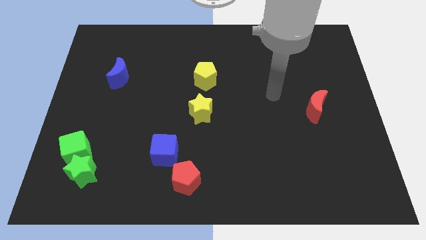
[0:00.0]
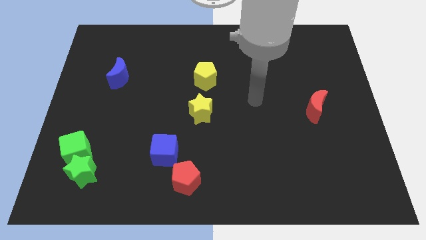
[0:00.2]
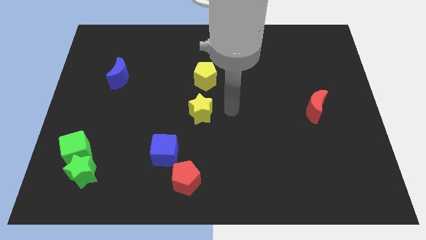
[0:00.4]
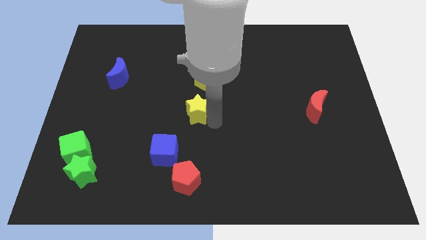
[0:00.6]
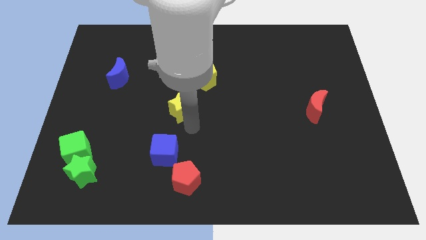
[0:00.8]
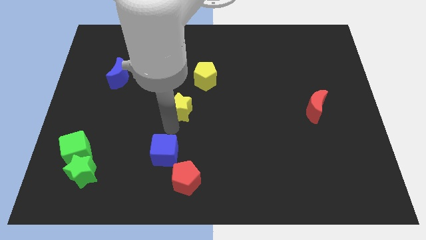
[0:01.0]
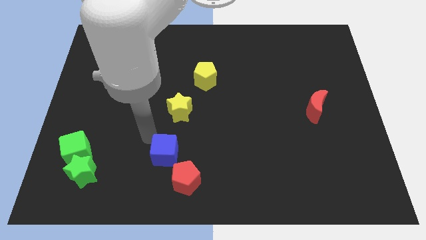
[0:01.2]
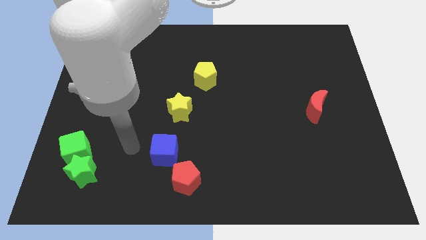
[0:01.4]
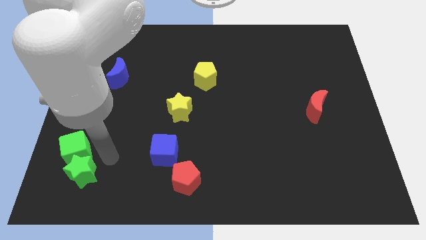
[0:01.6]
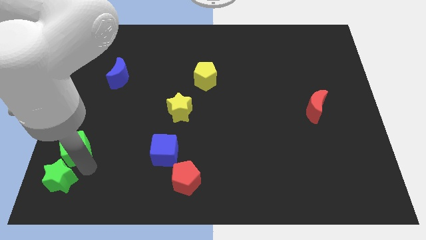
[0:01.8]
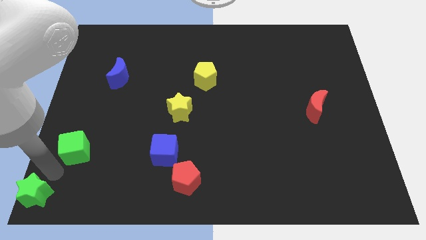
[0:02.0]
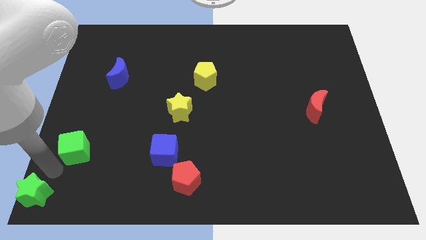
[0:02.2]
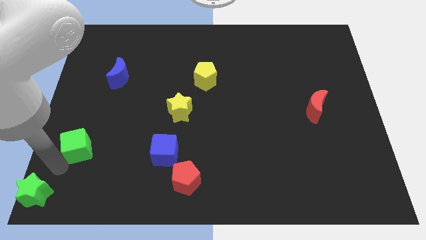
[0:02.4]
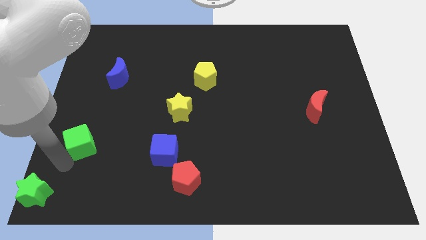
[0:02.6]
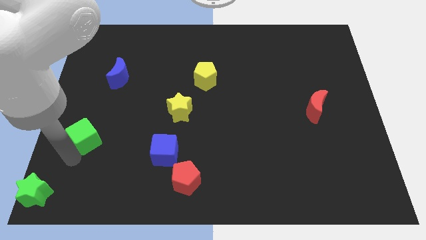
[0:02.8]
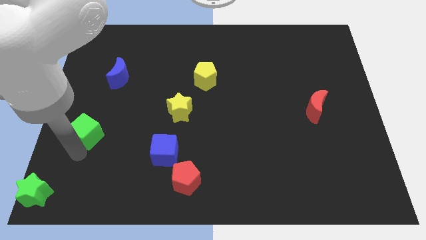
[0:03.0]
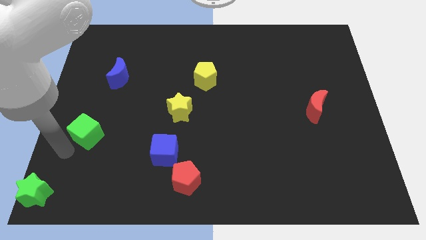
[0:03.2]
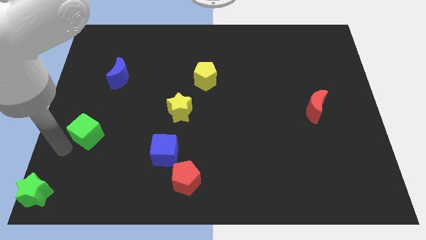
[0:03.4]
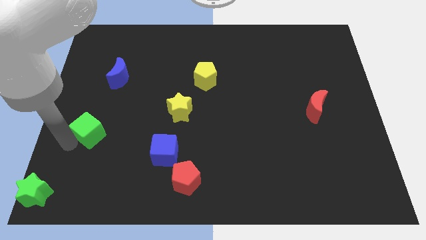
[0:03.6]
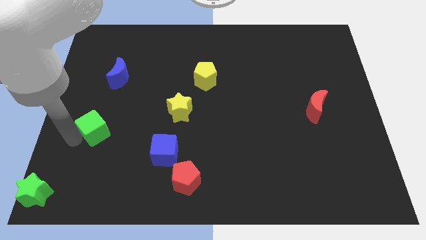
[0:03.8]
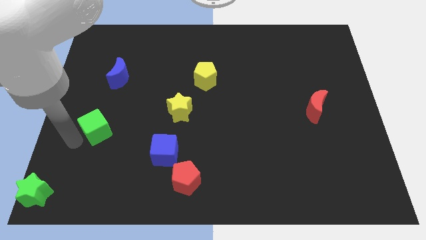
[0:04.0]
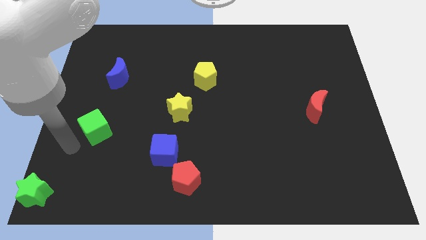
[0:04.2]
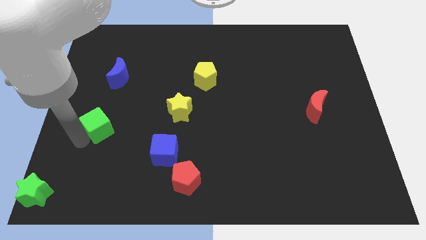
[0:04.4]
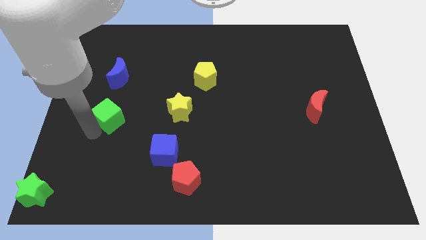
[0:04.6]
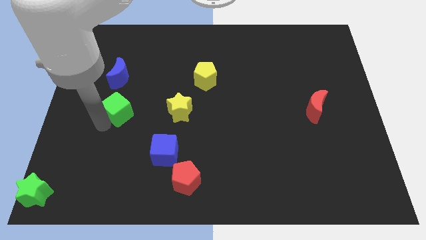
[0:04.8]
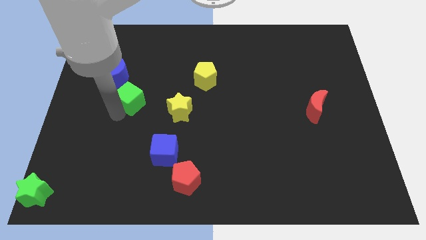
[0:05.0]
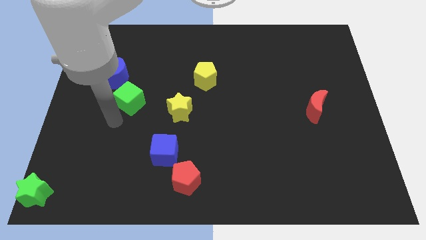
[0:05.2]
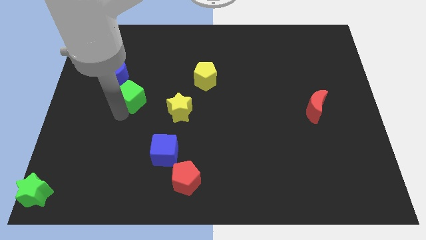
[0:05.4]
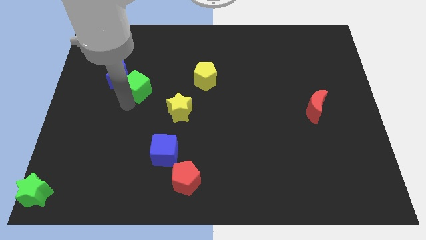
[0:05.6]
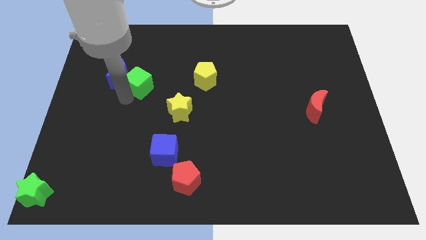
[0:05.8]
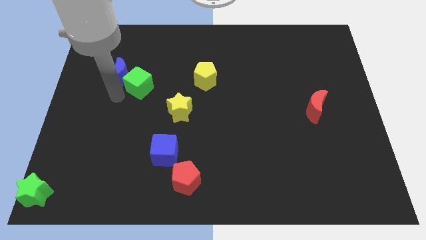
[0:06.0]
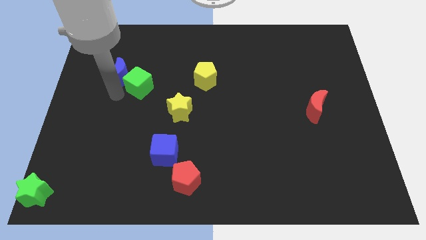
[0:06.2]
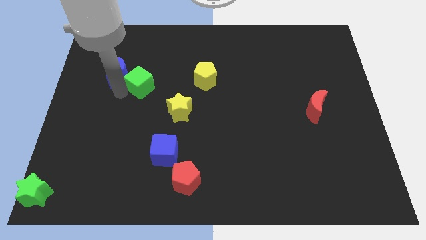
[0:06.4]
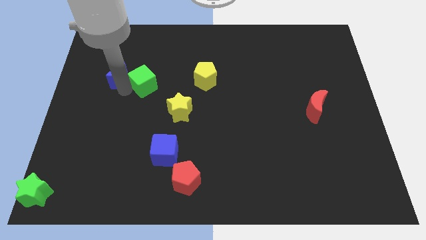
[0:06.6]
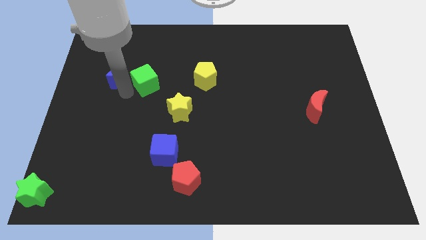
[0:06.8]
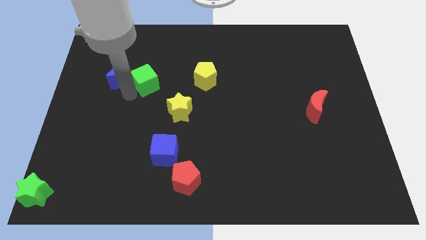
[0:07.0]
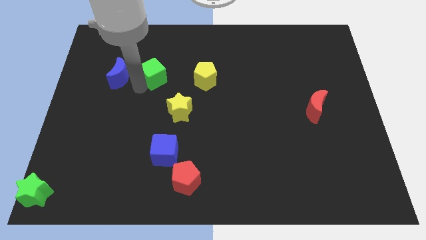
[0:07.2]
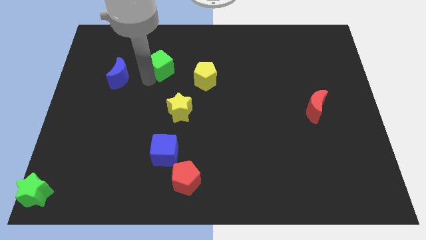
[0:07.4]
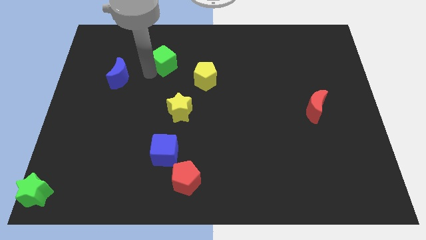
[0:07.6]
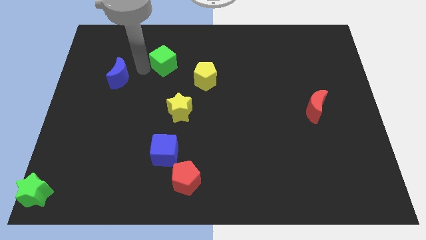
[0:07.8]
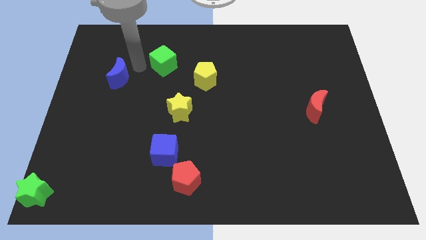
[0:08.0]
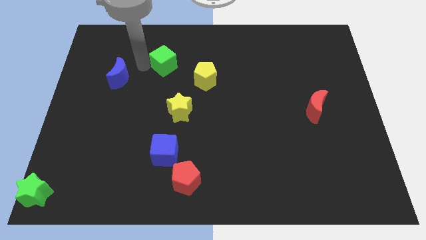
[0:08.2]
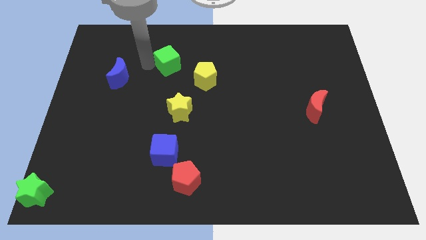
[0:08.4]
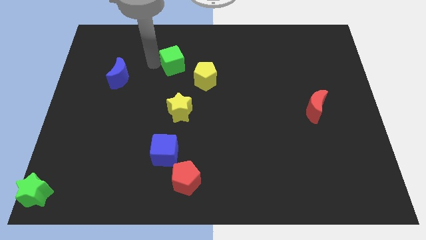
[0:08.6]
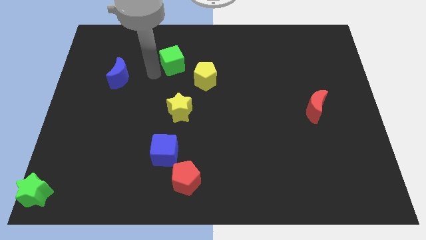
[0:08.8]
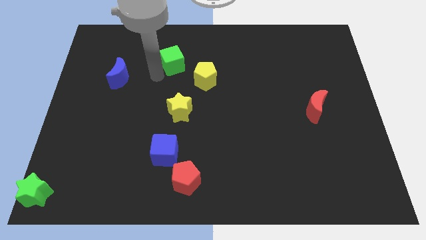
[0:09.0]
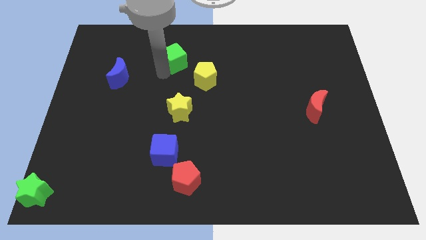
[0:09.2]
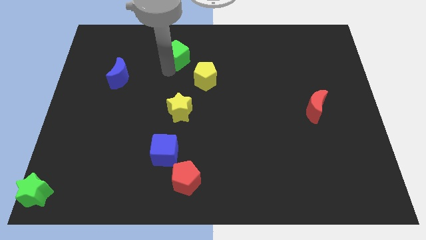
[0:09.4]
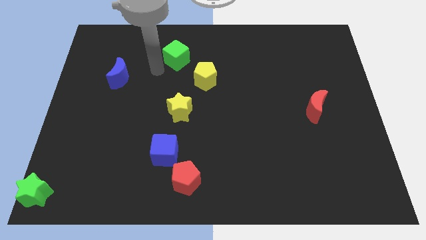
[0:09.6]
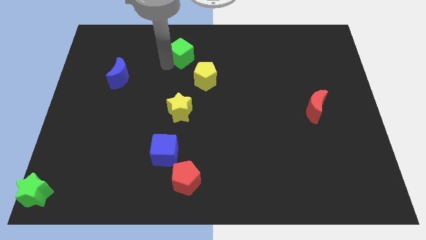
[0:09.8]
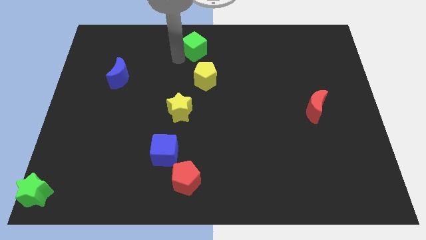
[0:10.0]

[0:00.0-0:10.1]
slide the green cube to the towards your base

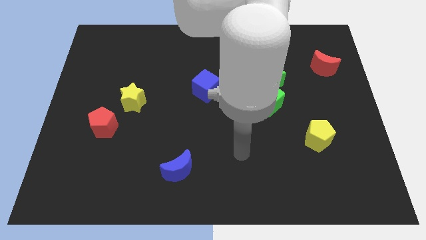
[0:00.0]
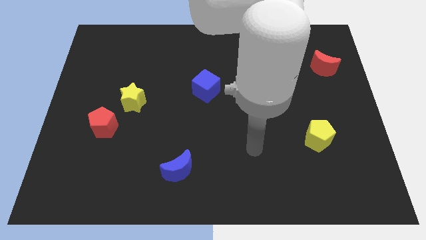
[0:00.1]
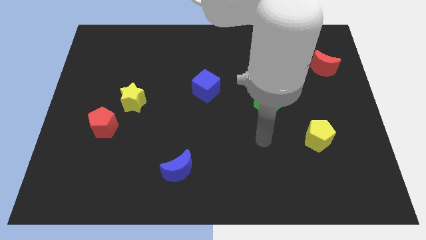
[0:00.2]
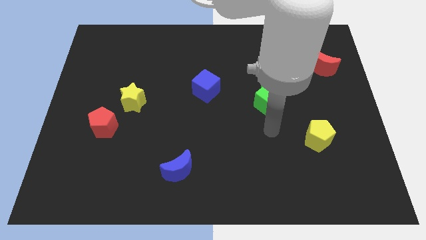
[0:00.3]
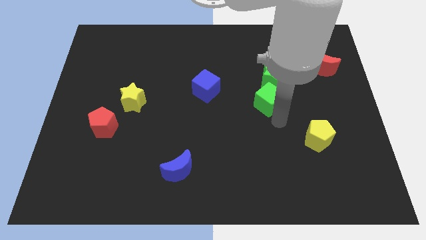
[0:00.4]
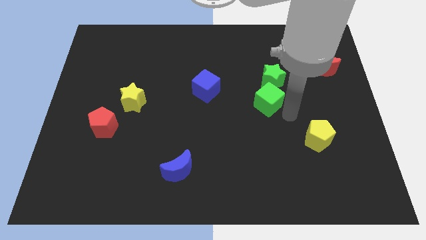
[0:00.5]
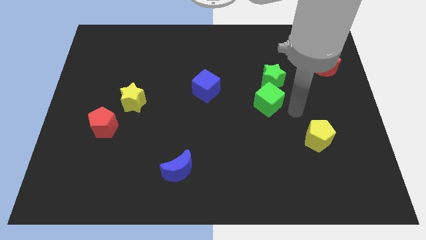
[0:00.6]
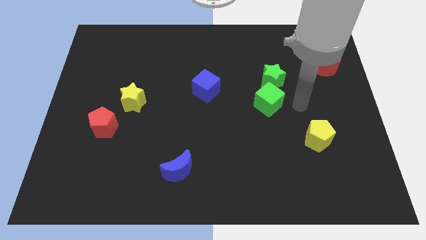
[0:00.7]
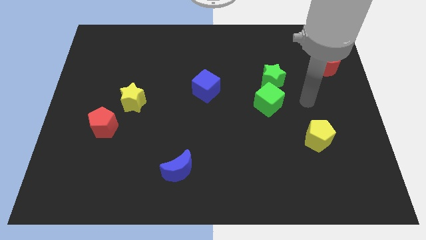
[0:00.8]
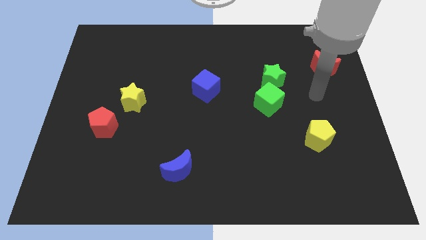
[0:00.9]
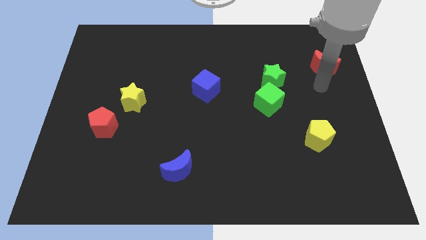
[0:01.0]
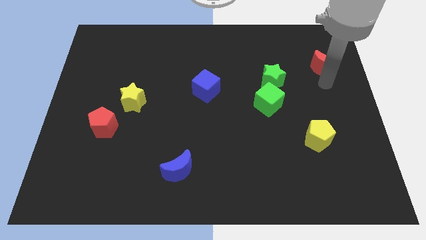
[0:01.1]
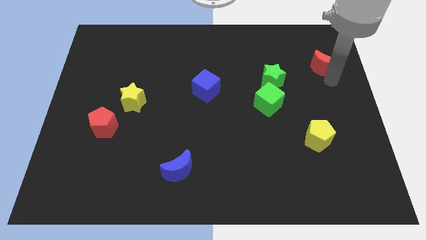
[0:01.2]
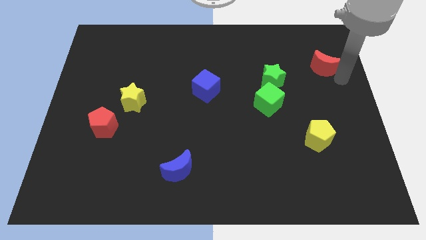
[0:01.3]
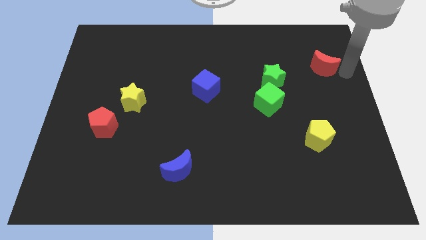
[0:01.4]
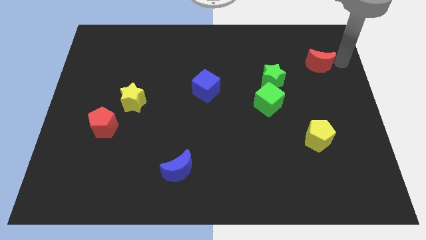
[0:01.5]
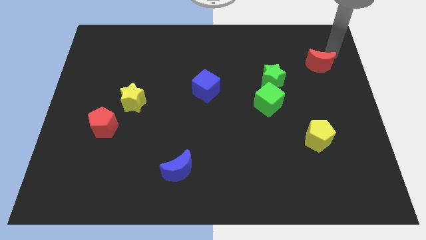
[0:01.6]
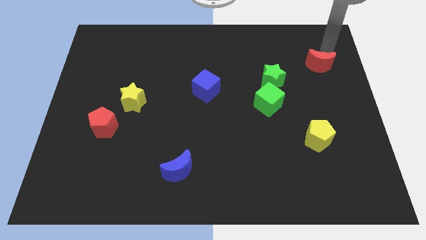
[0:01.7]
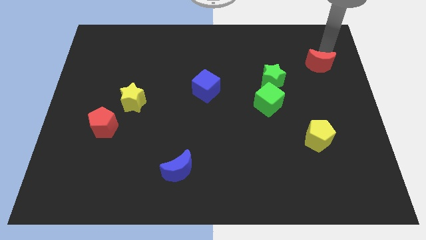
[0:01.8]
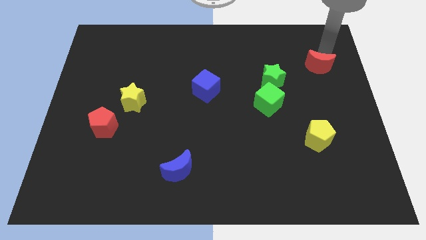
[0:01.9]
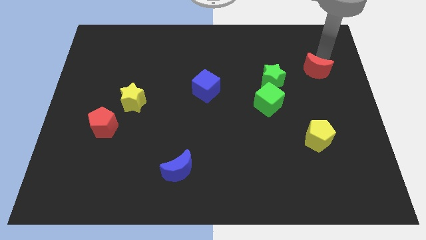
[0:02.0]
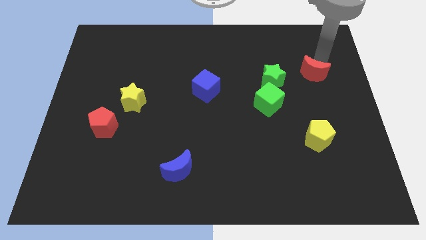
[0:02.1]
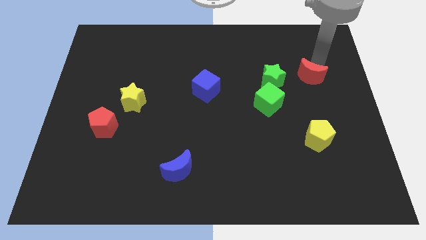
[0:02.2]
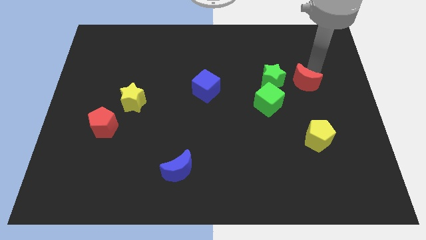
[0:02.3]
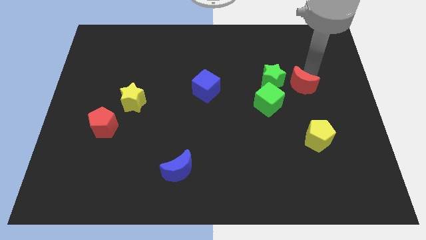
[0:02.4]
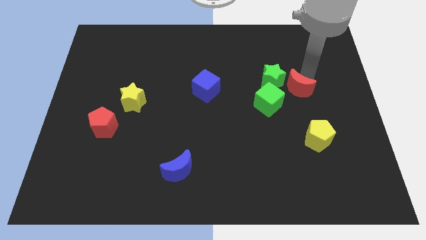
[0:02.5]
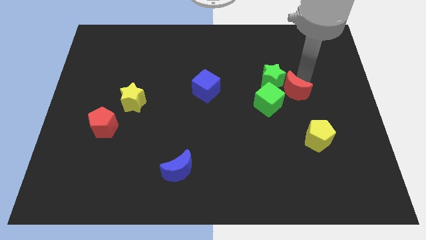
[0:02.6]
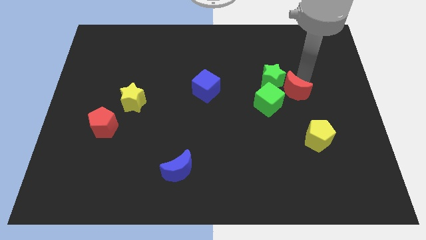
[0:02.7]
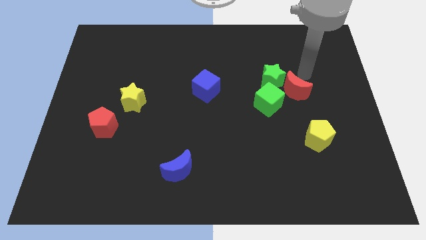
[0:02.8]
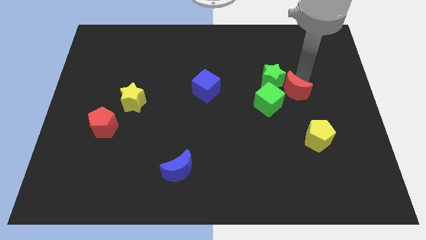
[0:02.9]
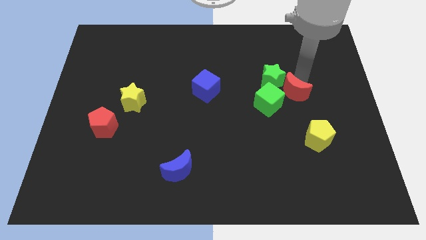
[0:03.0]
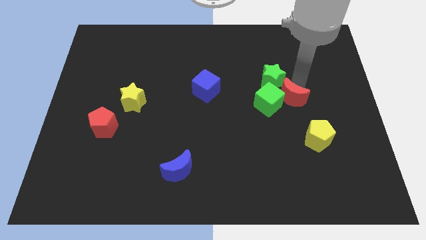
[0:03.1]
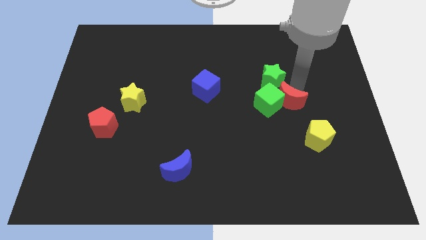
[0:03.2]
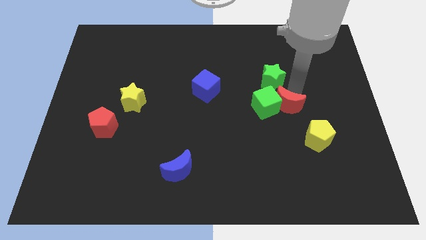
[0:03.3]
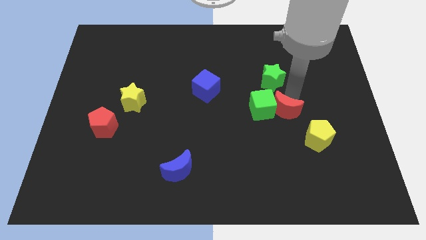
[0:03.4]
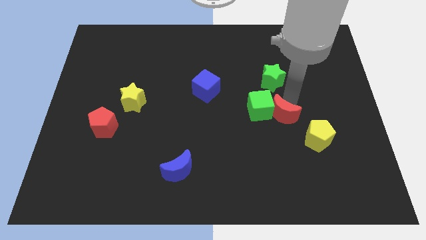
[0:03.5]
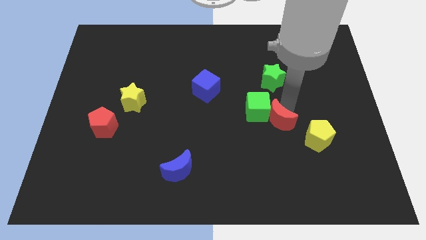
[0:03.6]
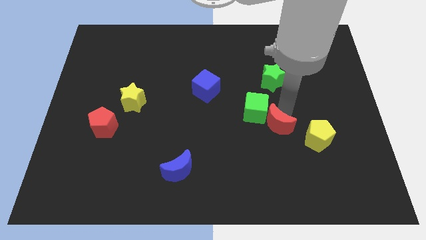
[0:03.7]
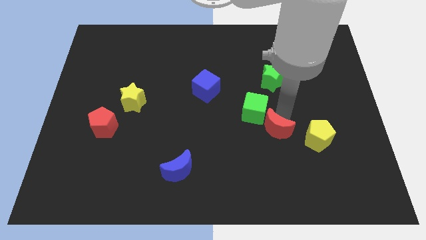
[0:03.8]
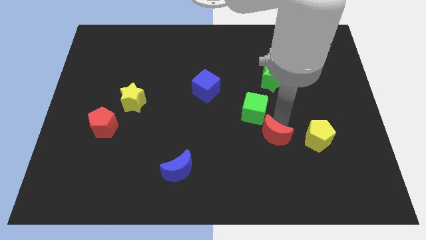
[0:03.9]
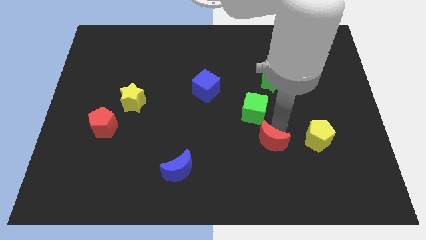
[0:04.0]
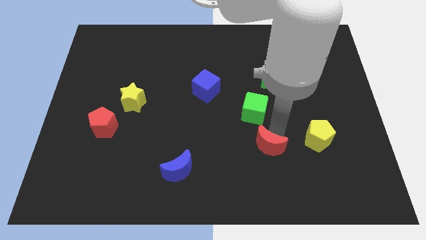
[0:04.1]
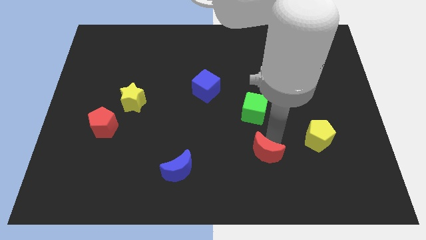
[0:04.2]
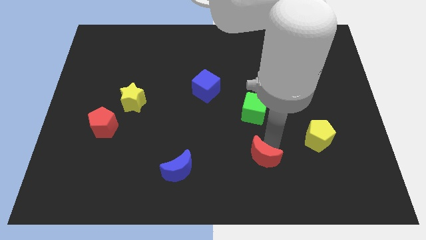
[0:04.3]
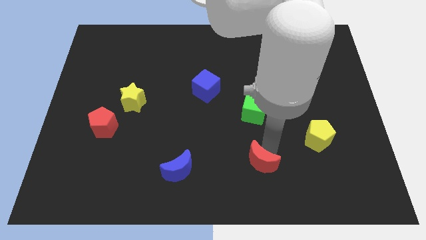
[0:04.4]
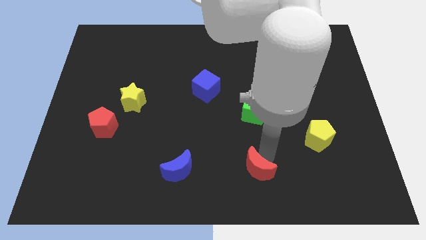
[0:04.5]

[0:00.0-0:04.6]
slide the red moon to the bottom
